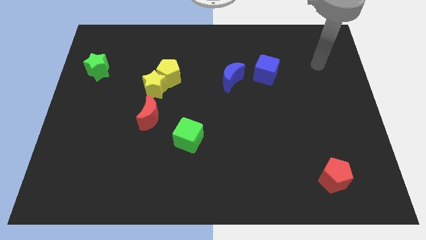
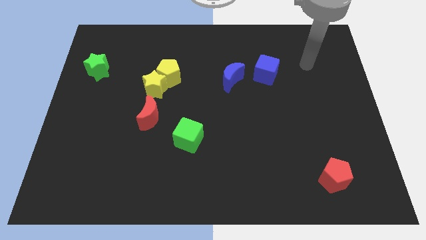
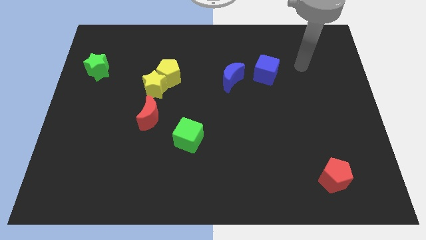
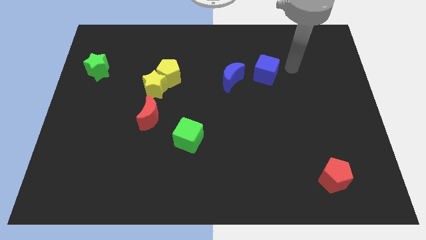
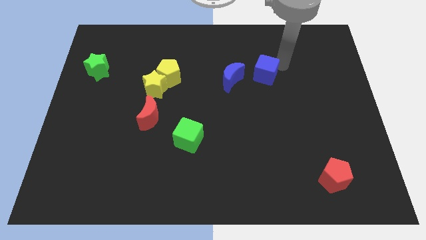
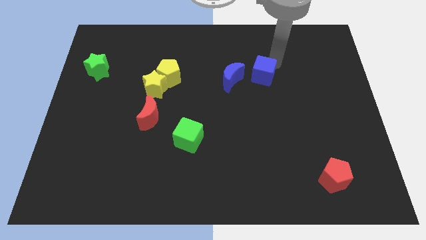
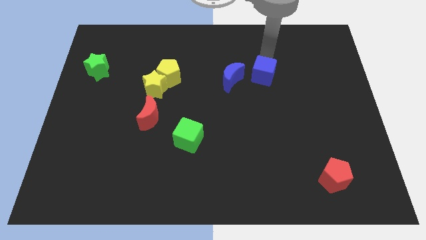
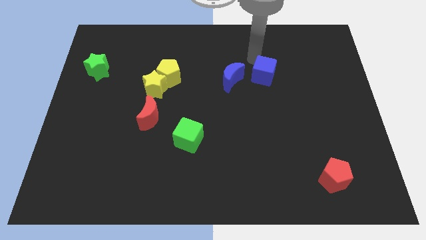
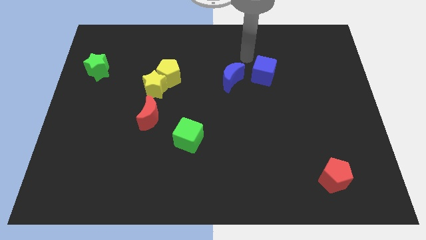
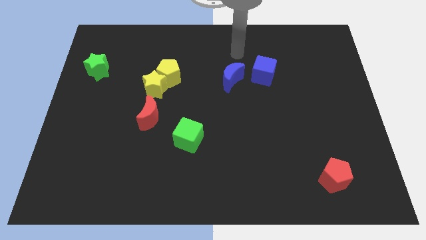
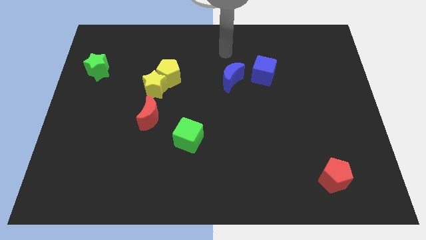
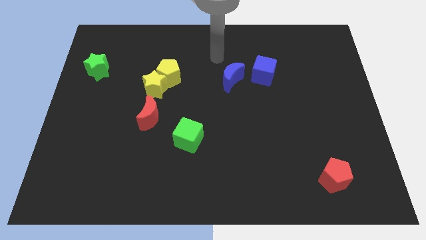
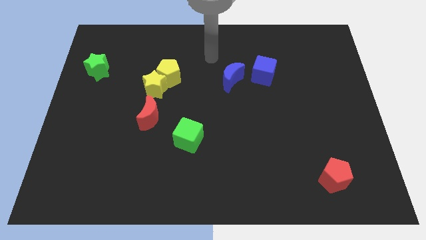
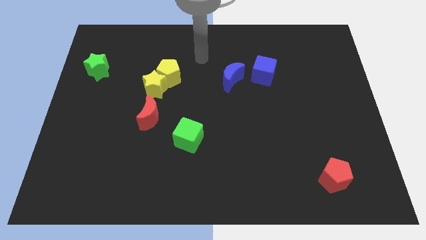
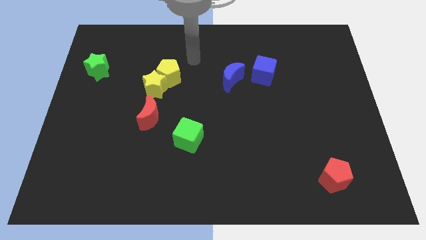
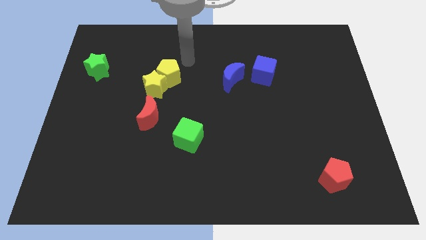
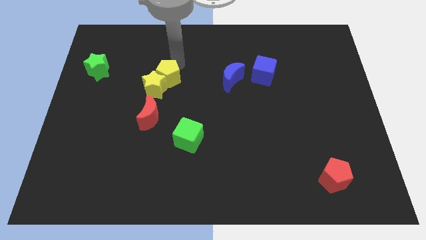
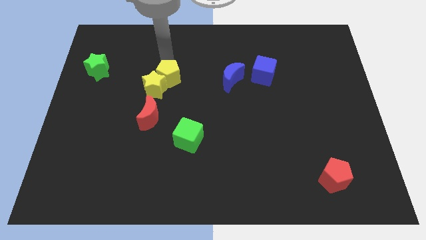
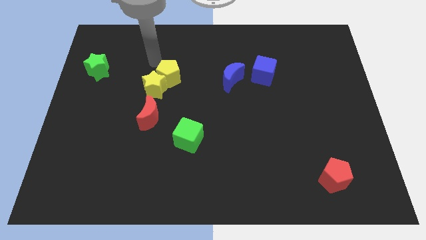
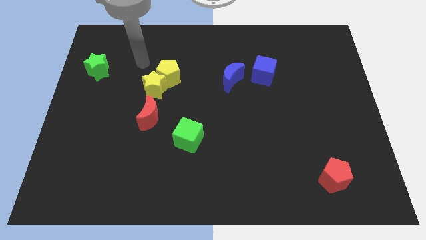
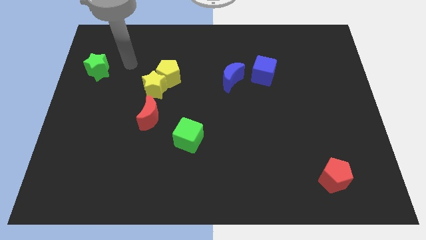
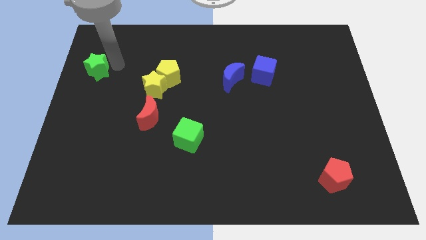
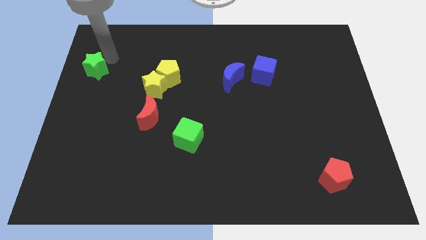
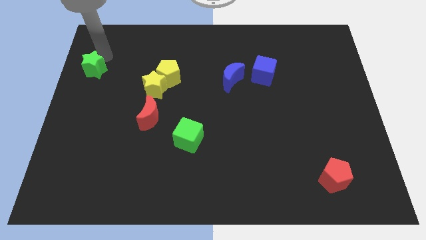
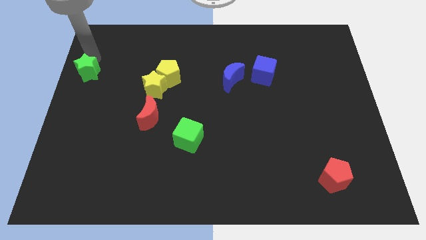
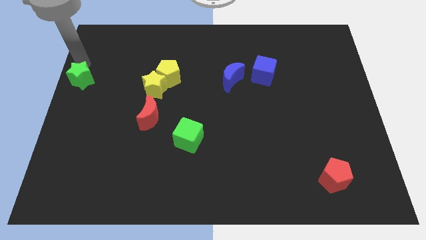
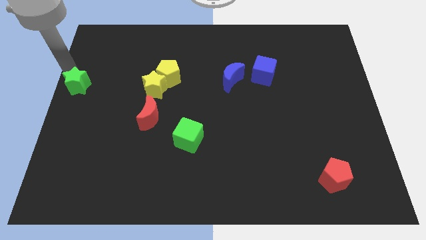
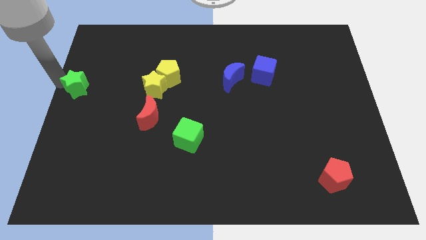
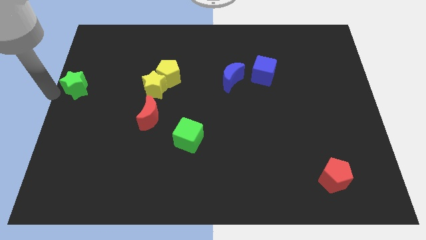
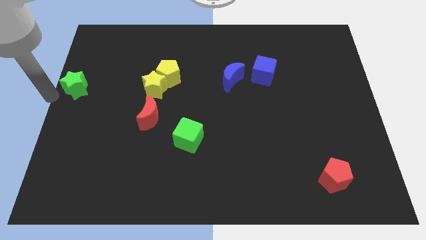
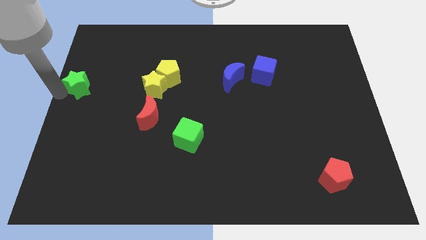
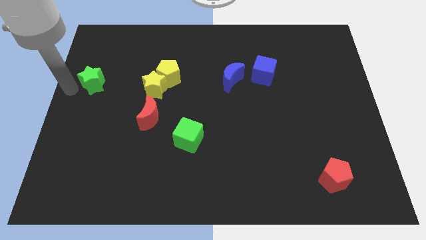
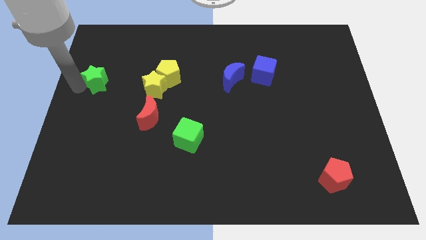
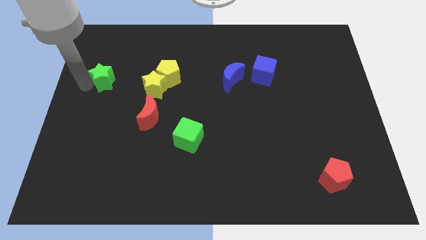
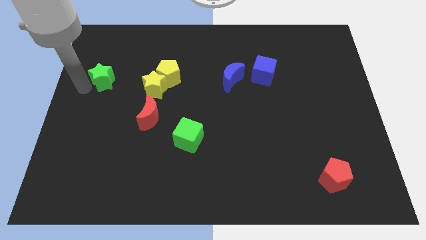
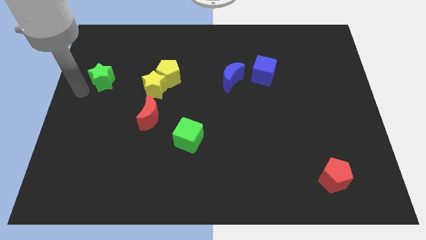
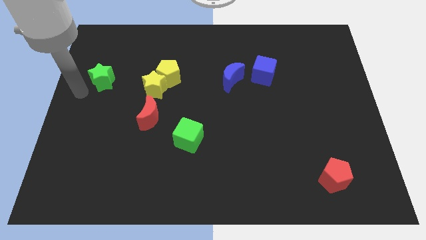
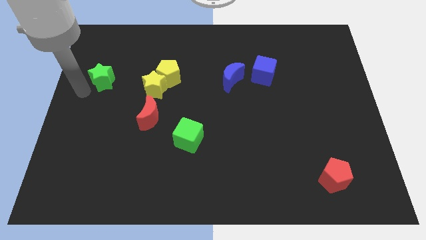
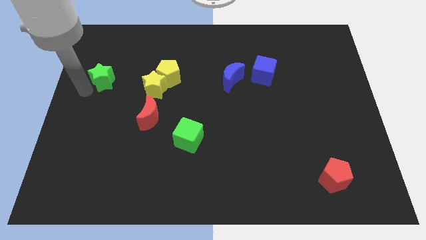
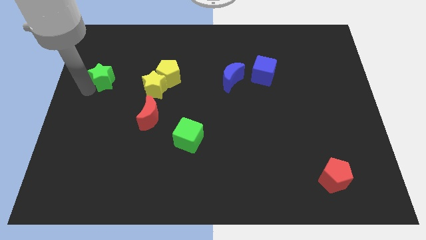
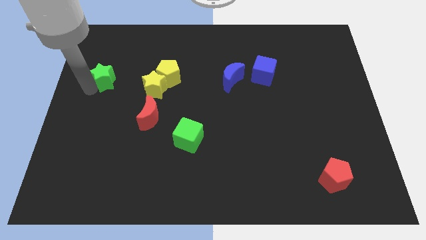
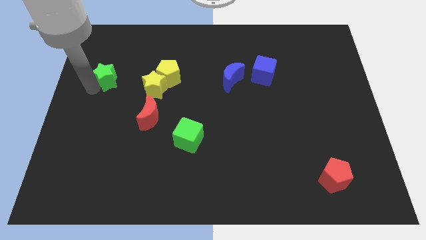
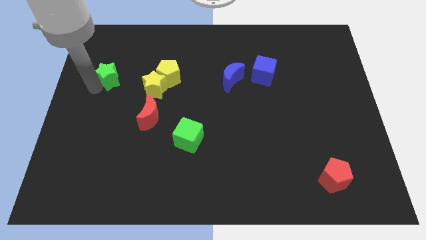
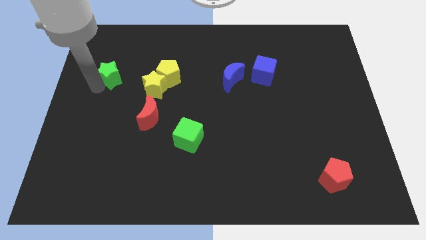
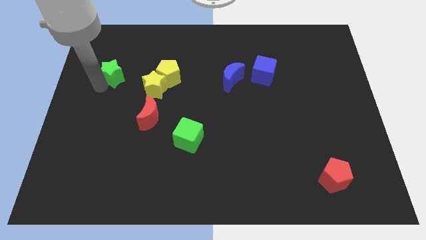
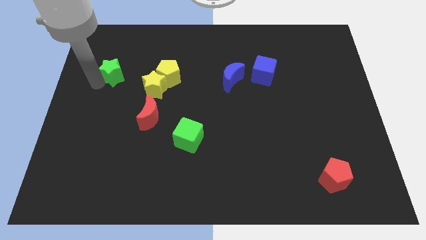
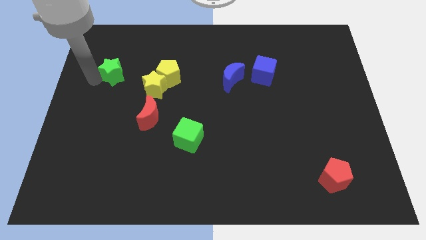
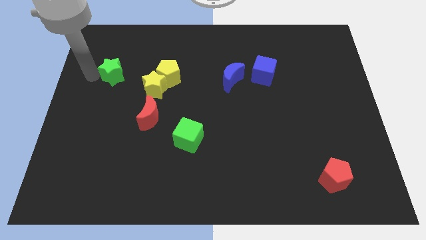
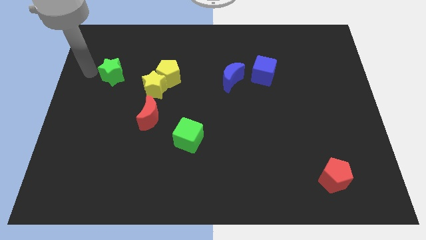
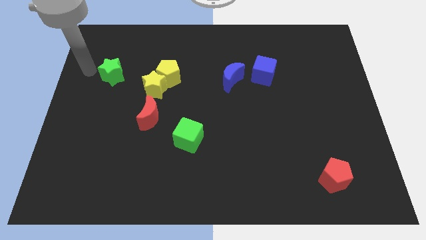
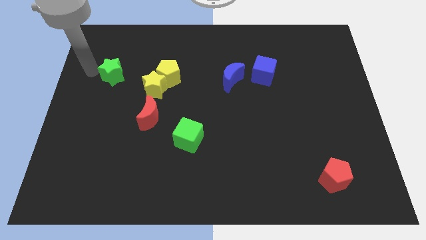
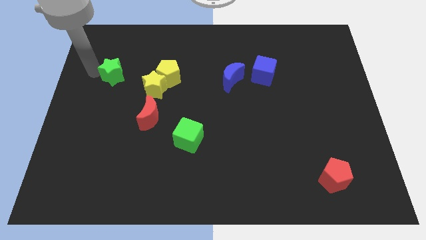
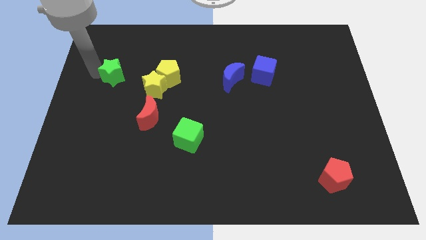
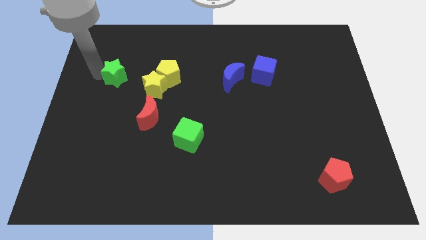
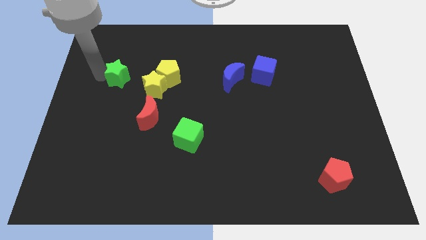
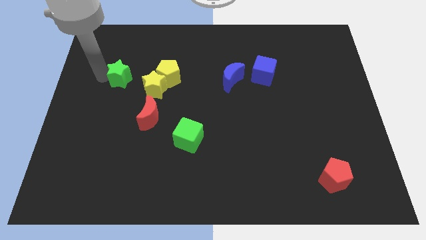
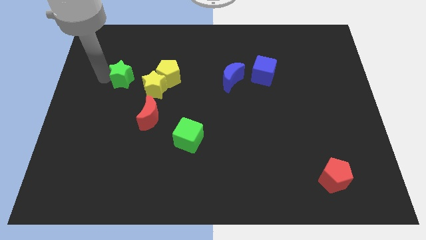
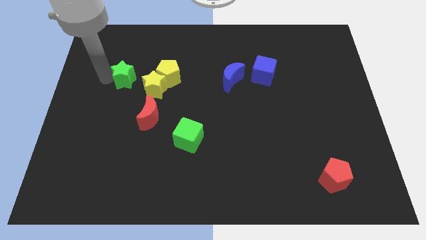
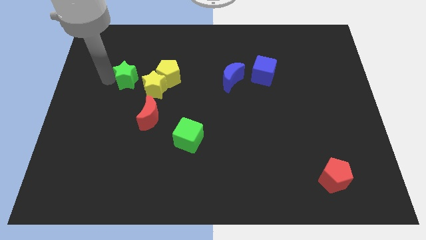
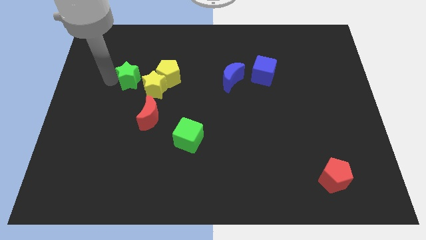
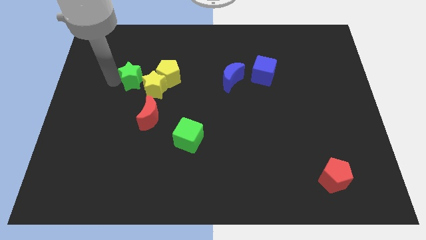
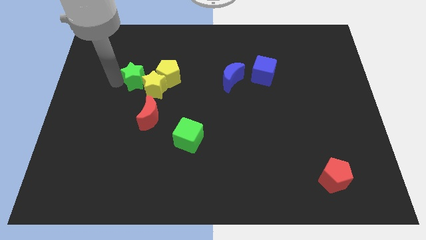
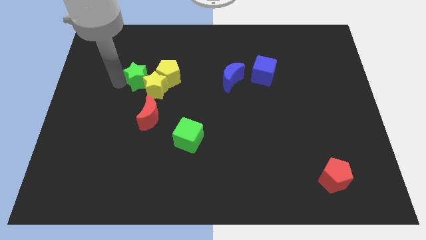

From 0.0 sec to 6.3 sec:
move the green star to the yellow star
